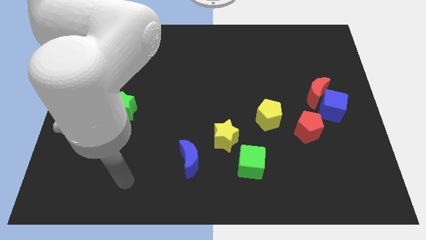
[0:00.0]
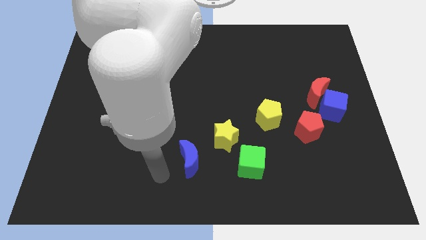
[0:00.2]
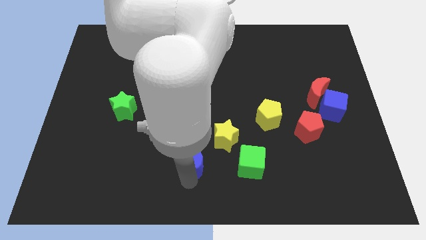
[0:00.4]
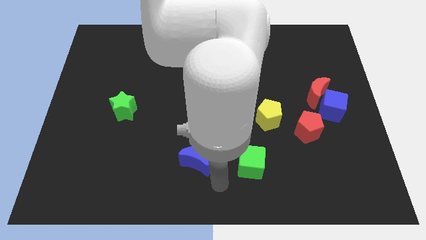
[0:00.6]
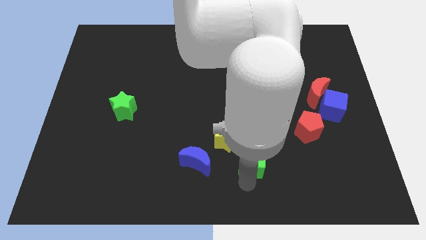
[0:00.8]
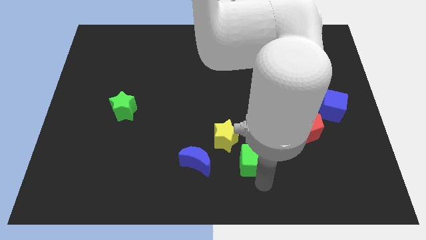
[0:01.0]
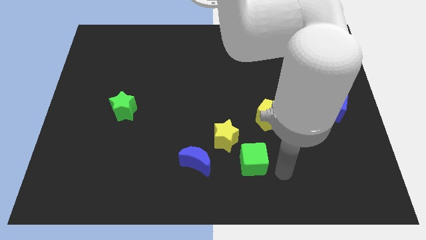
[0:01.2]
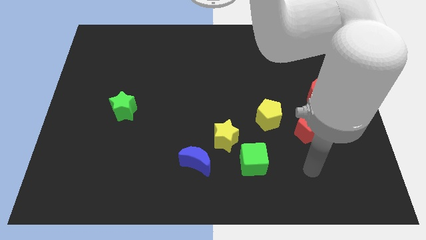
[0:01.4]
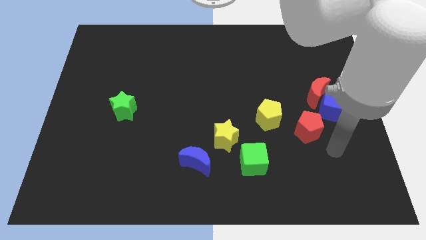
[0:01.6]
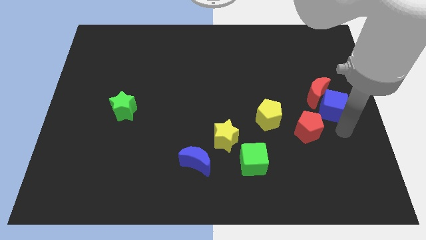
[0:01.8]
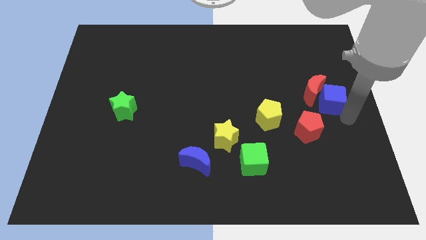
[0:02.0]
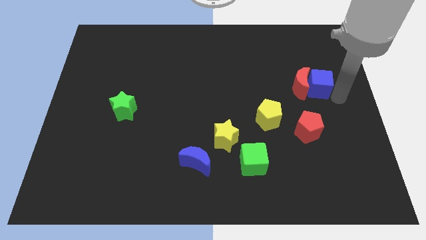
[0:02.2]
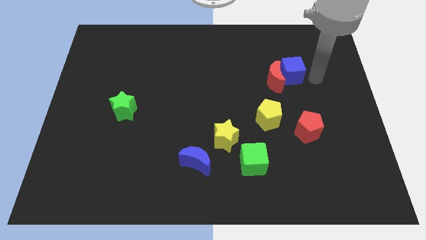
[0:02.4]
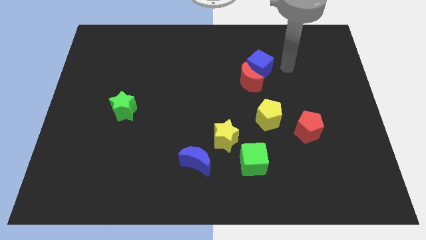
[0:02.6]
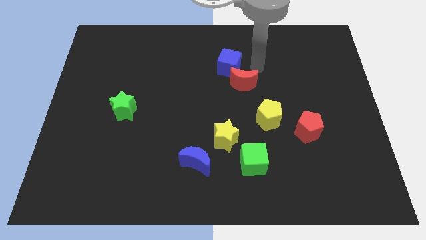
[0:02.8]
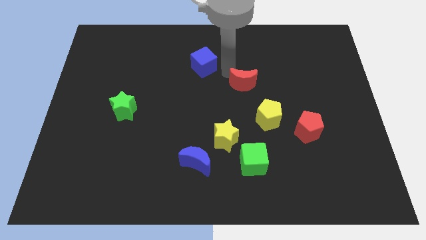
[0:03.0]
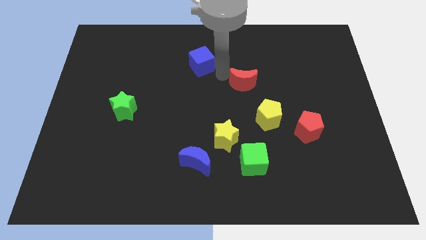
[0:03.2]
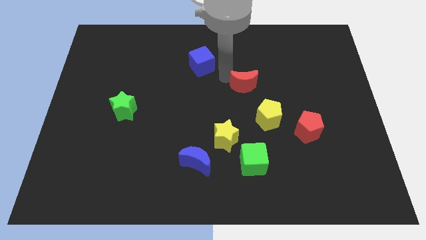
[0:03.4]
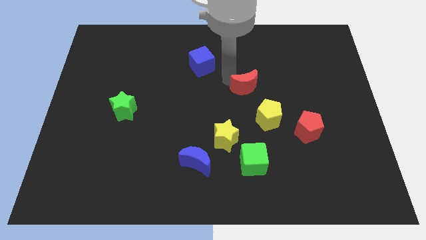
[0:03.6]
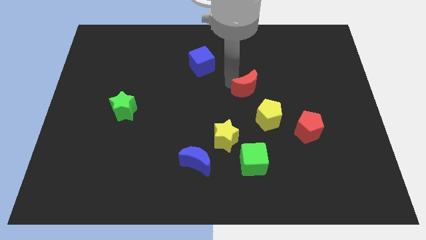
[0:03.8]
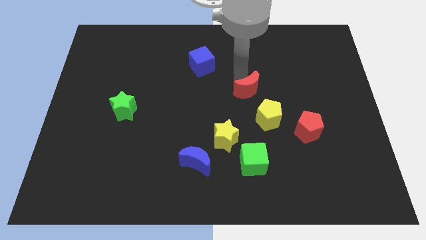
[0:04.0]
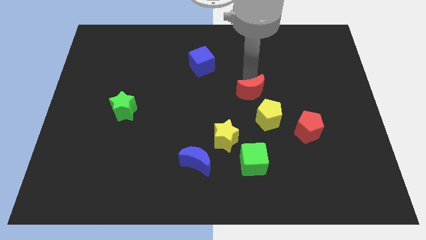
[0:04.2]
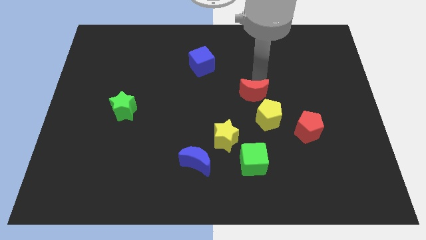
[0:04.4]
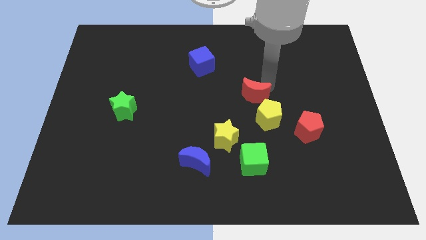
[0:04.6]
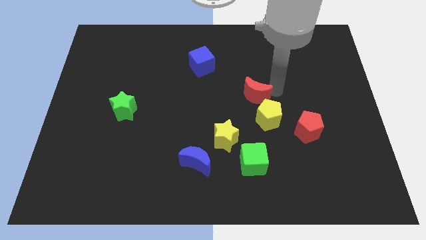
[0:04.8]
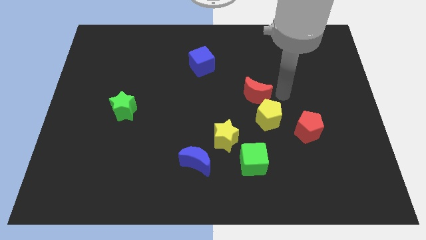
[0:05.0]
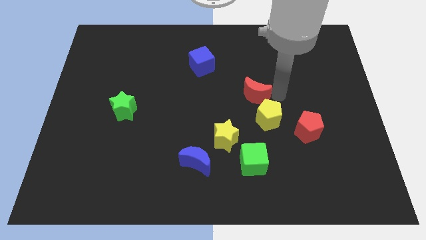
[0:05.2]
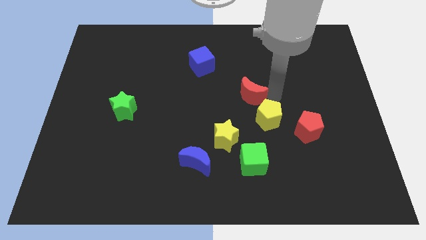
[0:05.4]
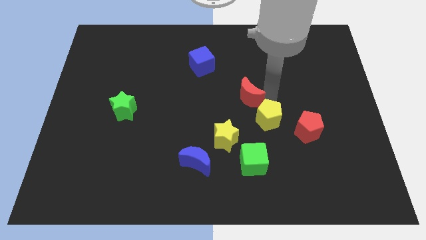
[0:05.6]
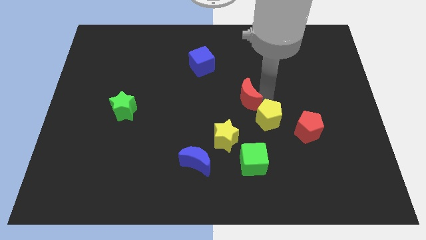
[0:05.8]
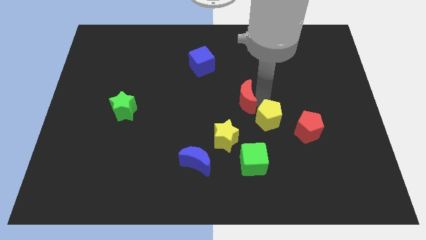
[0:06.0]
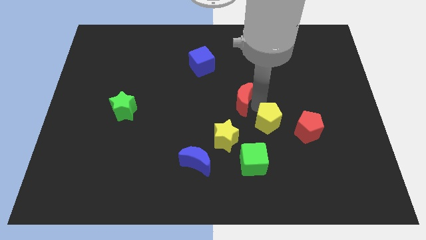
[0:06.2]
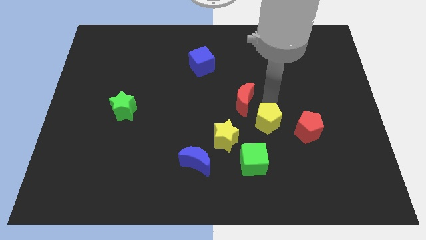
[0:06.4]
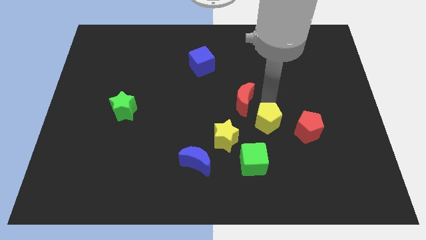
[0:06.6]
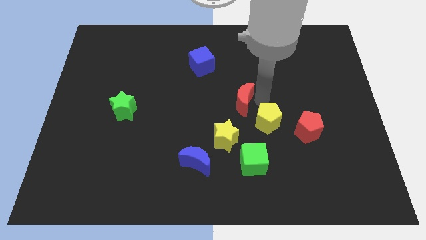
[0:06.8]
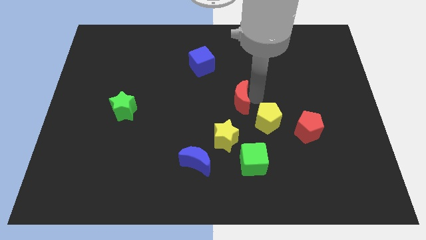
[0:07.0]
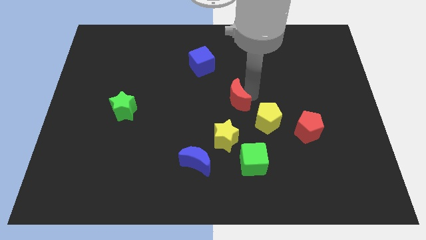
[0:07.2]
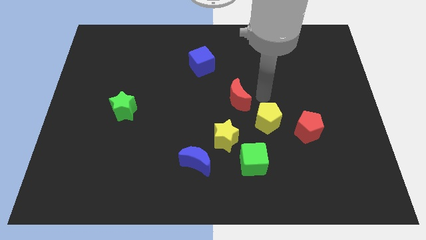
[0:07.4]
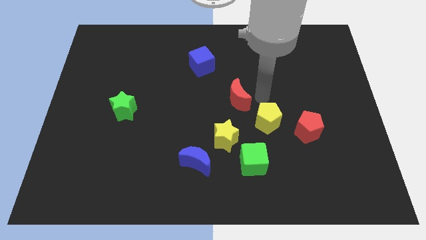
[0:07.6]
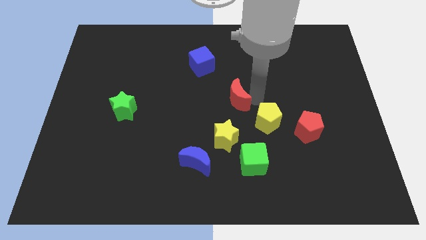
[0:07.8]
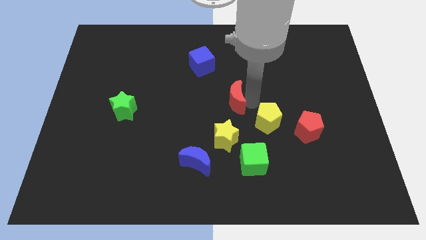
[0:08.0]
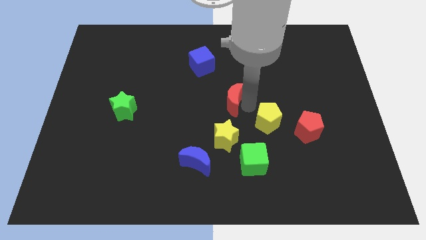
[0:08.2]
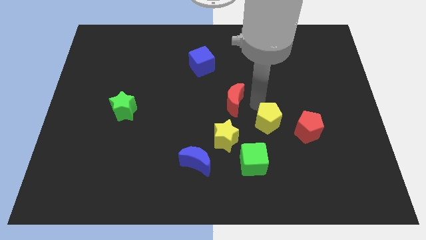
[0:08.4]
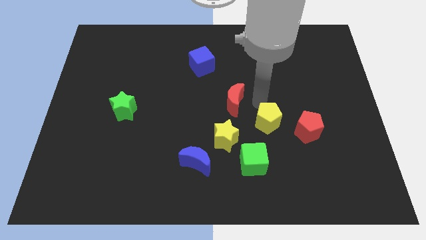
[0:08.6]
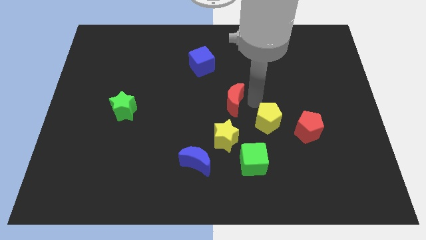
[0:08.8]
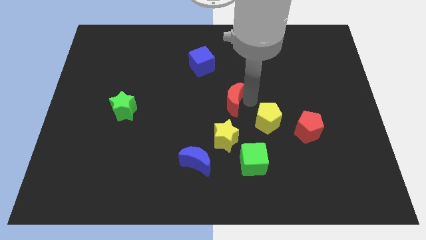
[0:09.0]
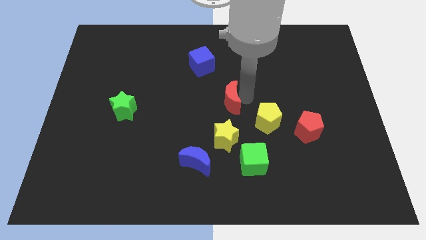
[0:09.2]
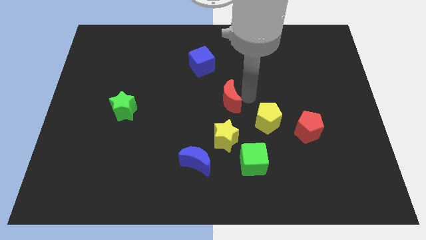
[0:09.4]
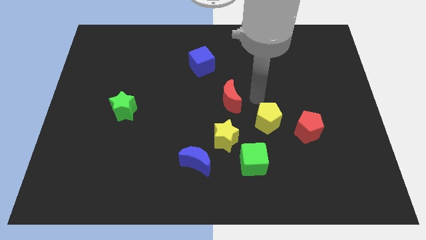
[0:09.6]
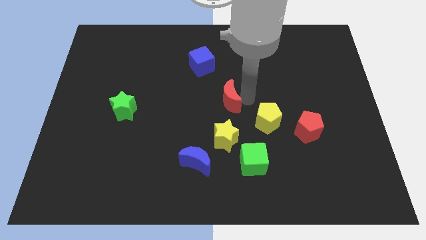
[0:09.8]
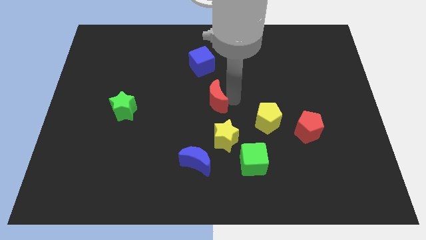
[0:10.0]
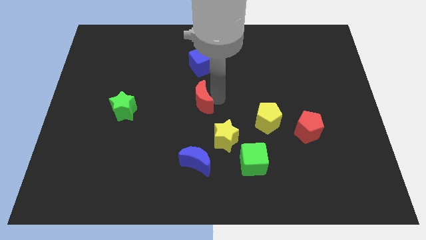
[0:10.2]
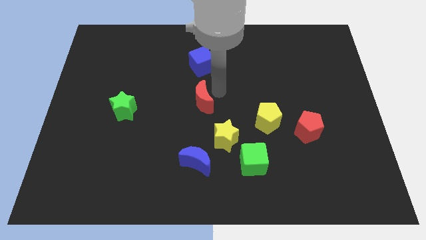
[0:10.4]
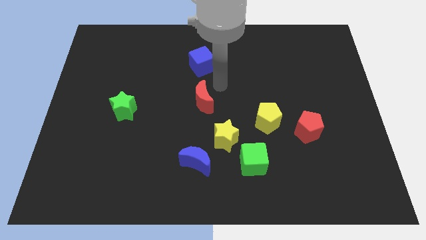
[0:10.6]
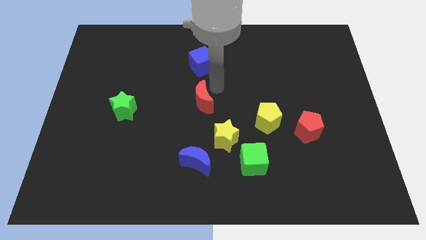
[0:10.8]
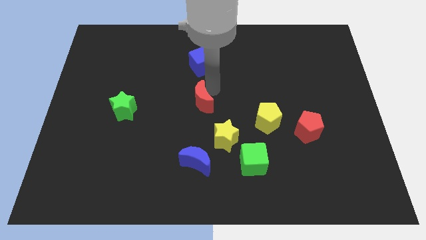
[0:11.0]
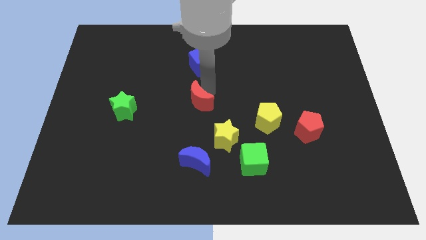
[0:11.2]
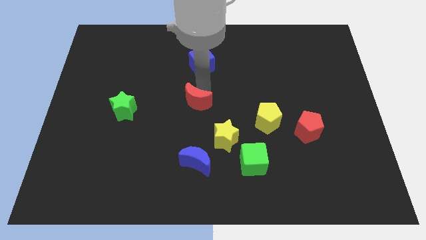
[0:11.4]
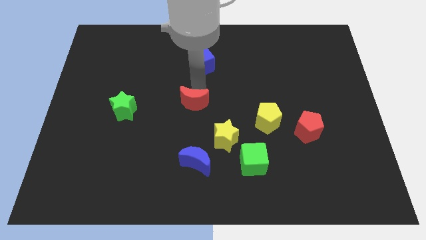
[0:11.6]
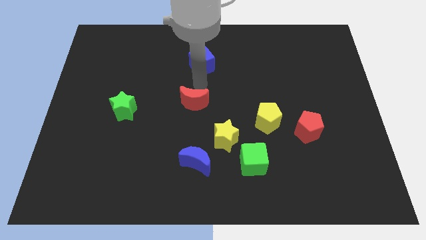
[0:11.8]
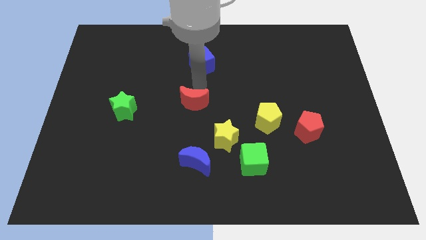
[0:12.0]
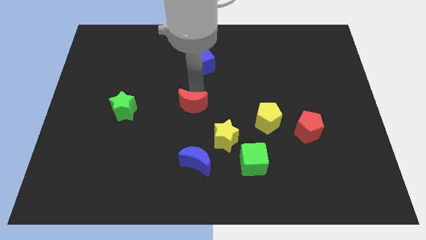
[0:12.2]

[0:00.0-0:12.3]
push the red moon right of the green star

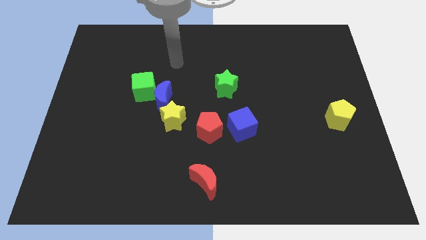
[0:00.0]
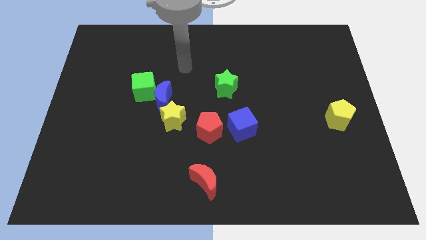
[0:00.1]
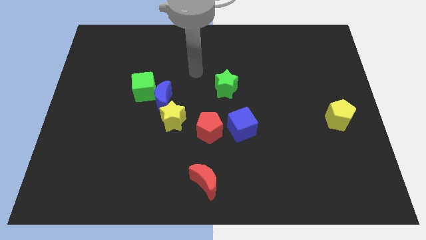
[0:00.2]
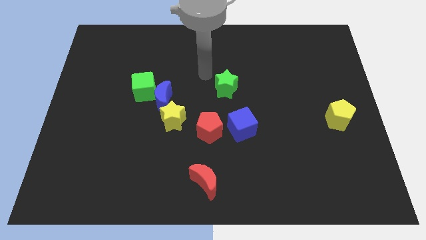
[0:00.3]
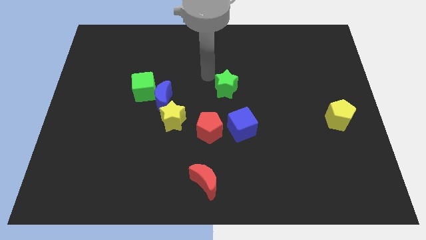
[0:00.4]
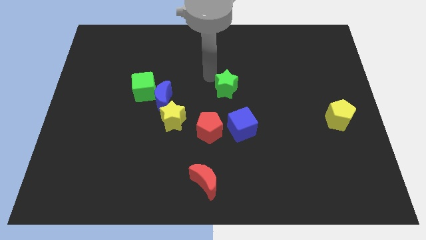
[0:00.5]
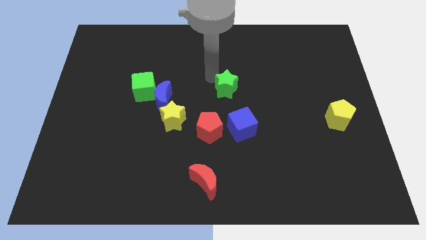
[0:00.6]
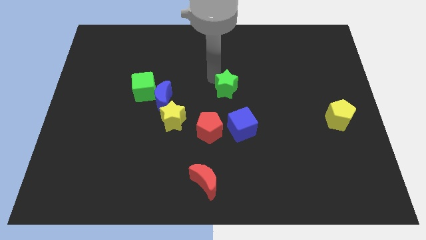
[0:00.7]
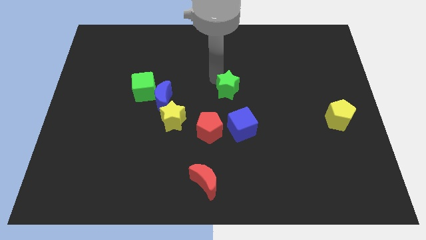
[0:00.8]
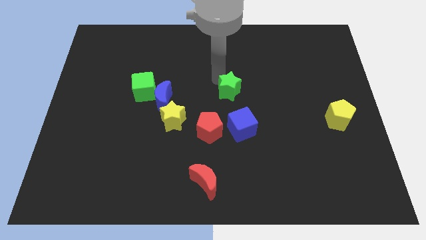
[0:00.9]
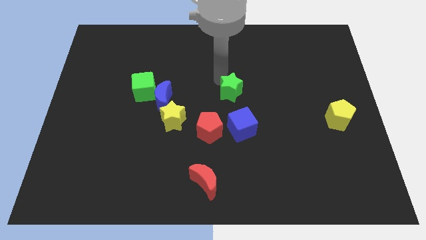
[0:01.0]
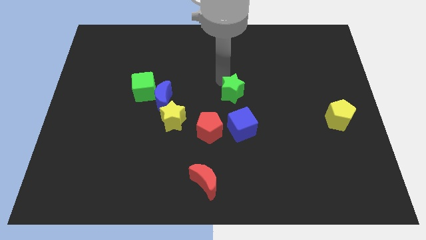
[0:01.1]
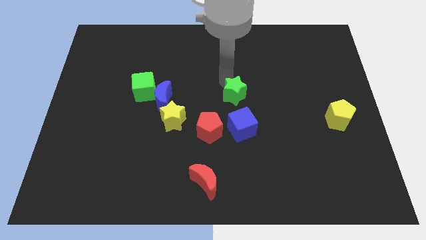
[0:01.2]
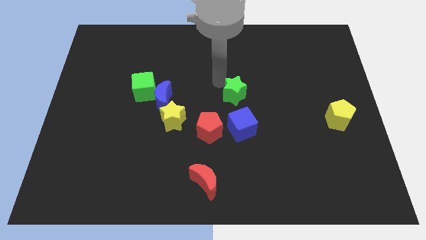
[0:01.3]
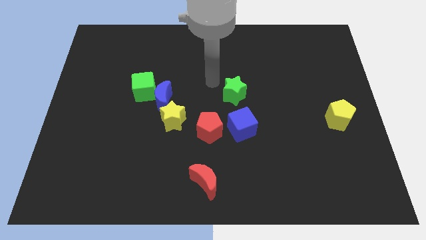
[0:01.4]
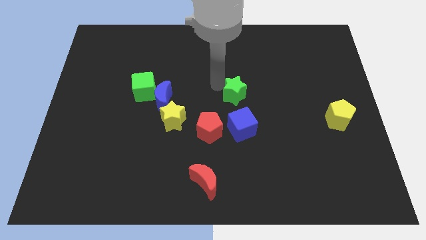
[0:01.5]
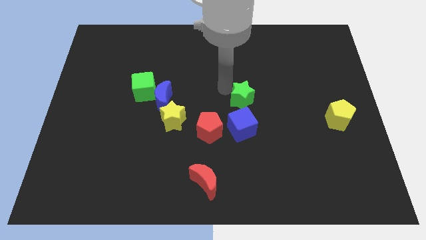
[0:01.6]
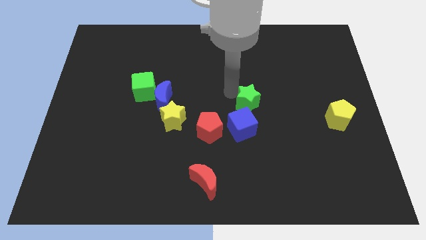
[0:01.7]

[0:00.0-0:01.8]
put the green star to the top right of the blue cube
